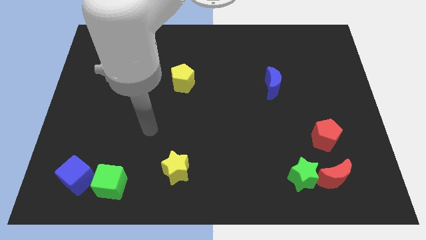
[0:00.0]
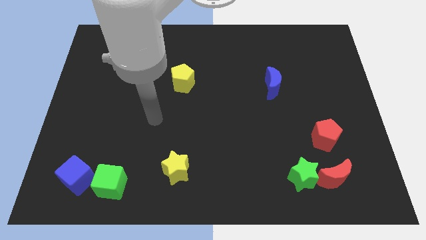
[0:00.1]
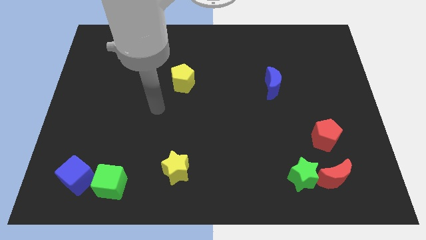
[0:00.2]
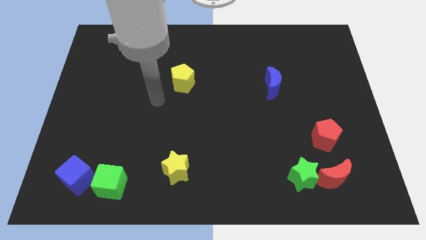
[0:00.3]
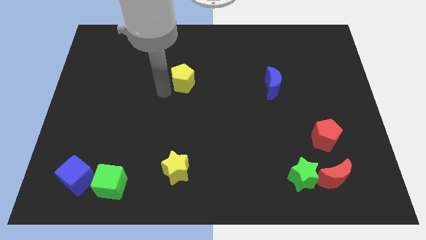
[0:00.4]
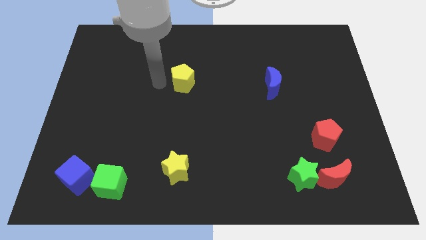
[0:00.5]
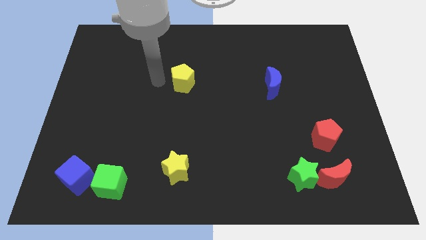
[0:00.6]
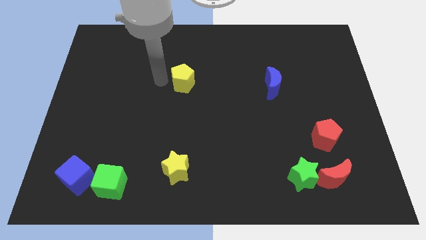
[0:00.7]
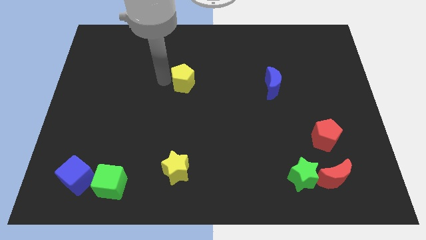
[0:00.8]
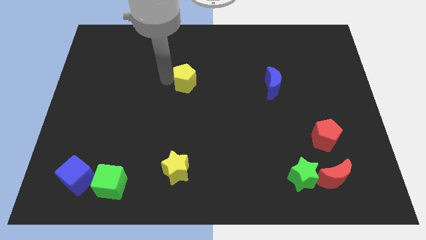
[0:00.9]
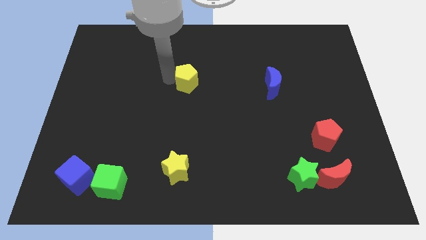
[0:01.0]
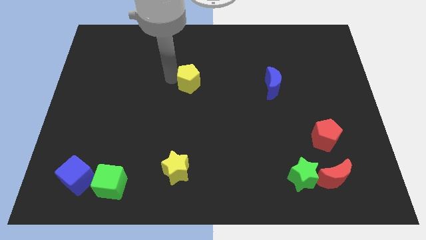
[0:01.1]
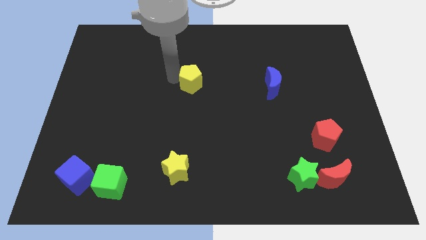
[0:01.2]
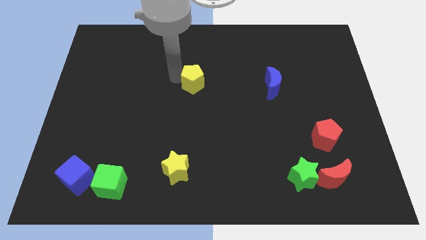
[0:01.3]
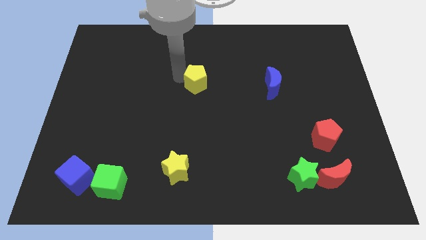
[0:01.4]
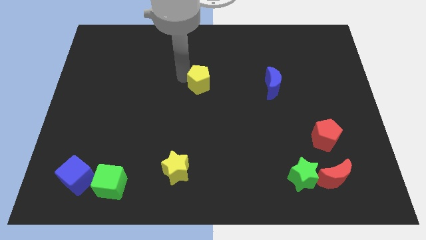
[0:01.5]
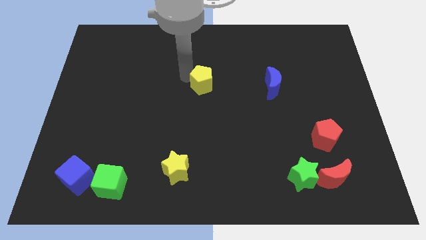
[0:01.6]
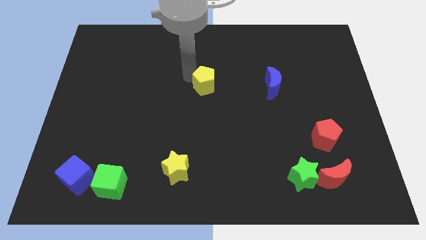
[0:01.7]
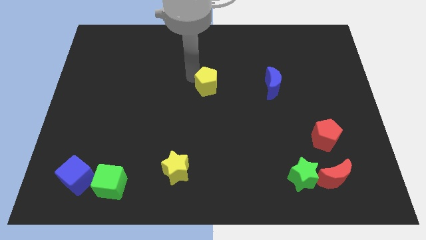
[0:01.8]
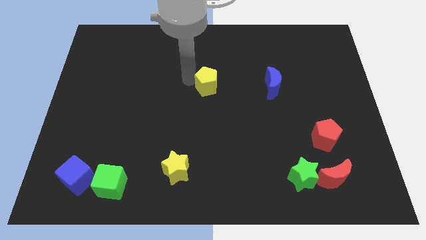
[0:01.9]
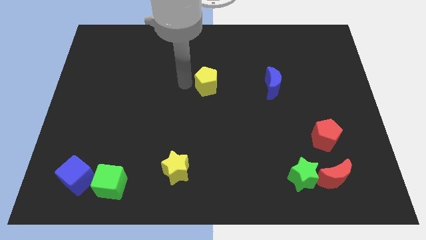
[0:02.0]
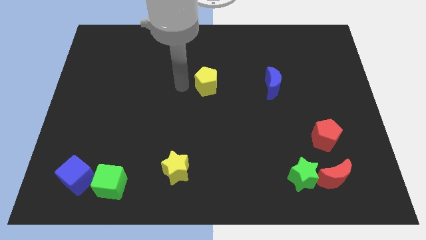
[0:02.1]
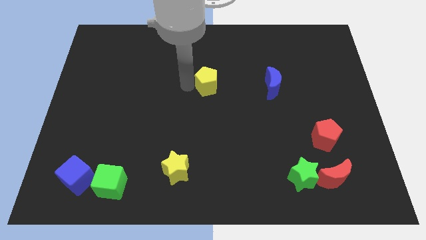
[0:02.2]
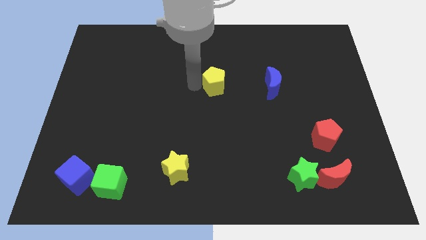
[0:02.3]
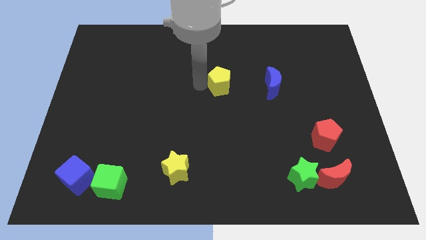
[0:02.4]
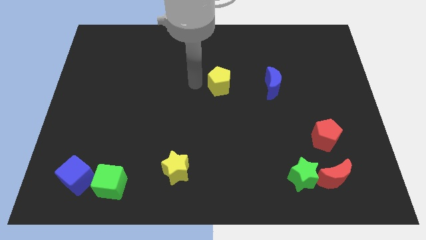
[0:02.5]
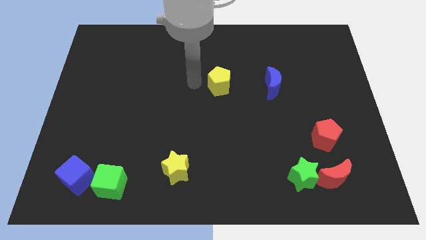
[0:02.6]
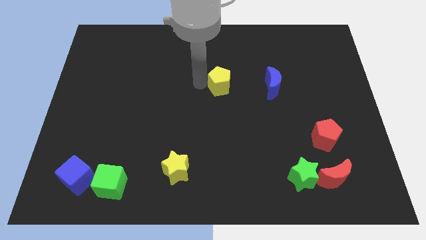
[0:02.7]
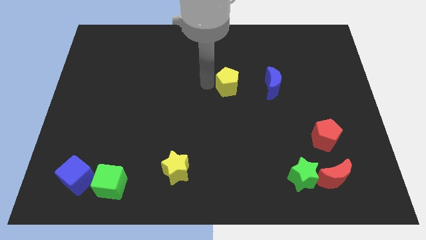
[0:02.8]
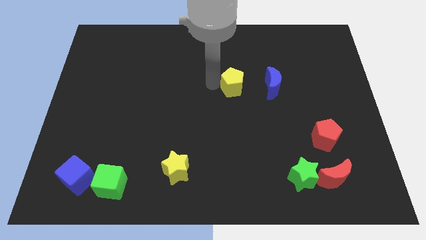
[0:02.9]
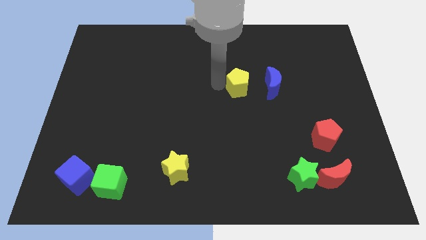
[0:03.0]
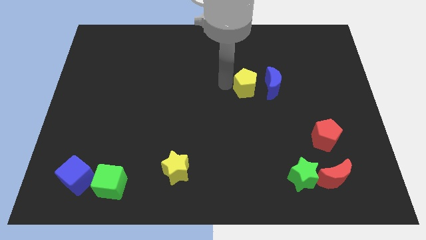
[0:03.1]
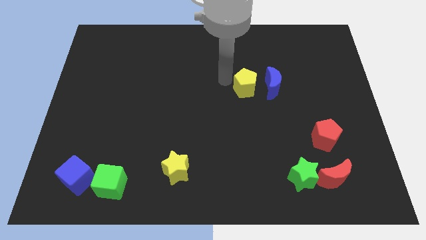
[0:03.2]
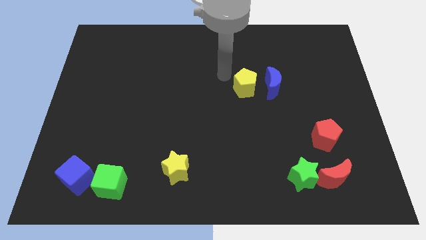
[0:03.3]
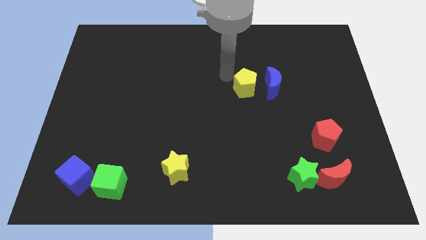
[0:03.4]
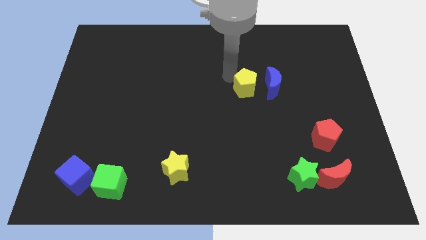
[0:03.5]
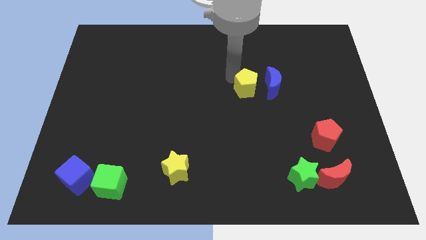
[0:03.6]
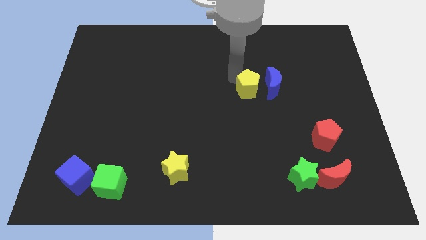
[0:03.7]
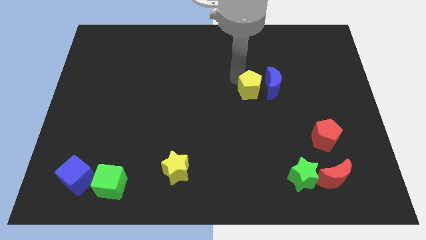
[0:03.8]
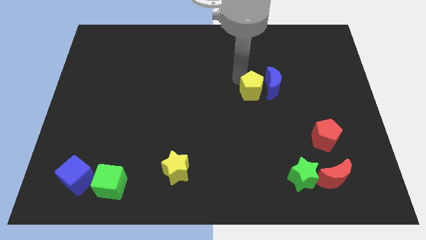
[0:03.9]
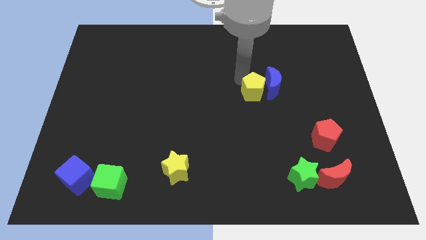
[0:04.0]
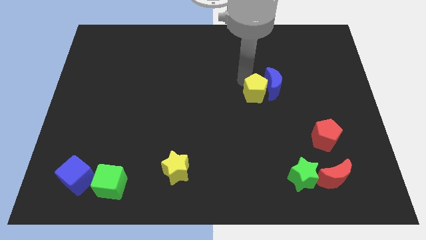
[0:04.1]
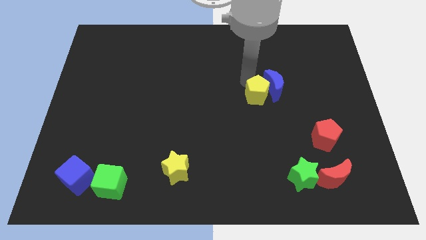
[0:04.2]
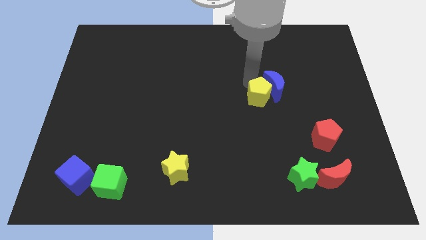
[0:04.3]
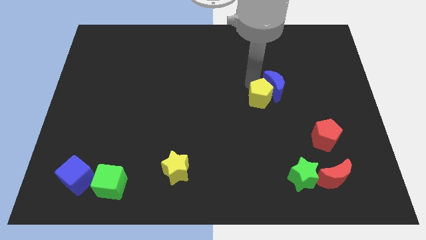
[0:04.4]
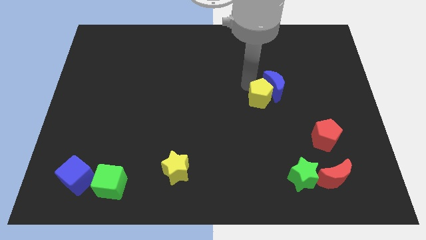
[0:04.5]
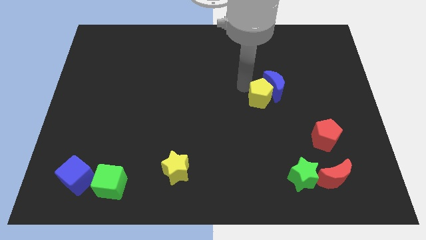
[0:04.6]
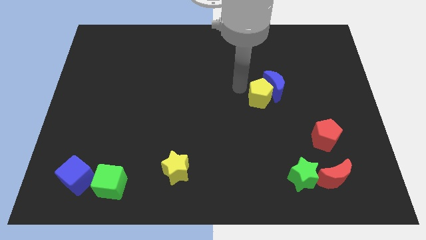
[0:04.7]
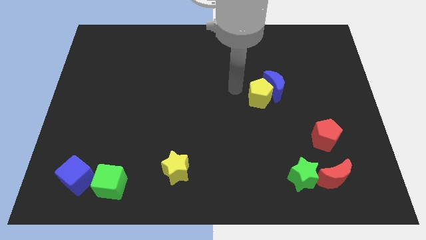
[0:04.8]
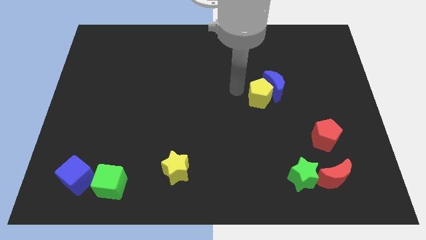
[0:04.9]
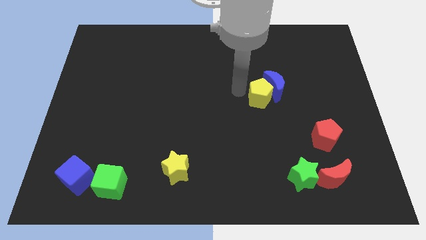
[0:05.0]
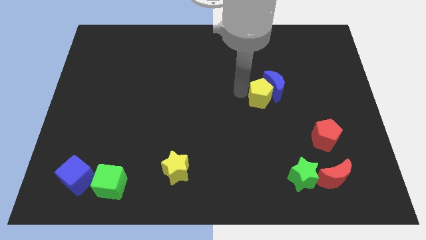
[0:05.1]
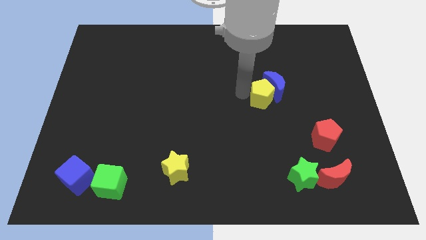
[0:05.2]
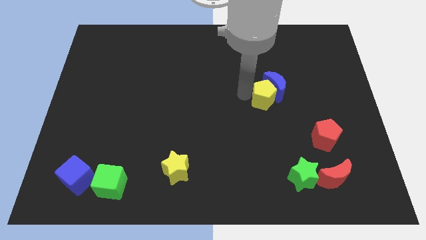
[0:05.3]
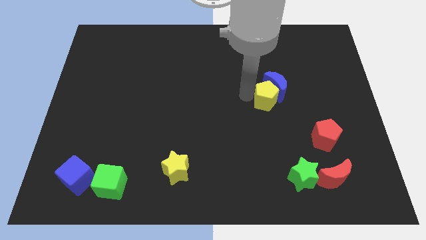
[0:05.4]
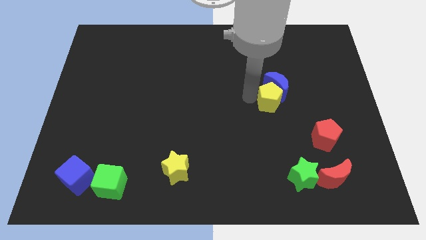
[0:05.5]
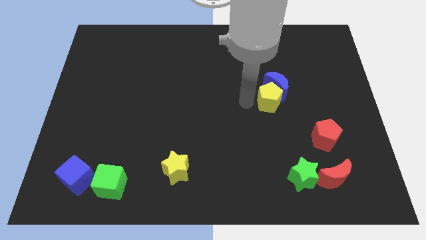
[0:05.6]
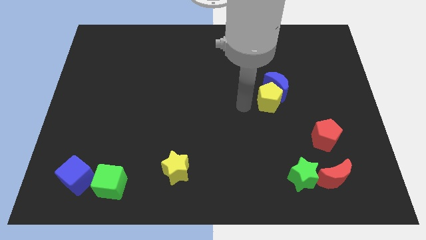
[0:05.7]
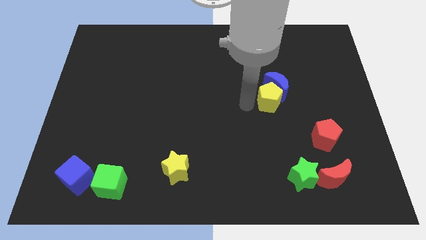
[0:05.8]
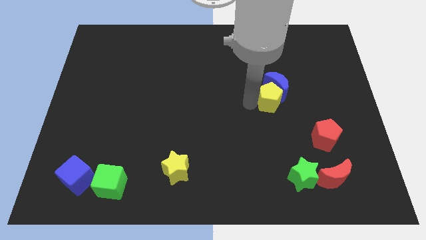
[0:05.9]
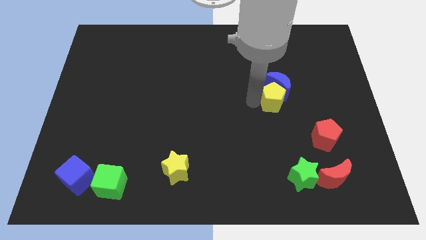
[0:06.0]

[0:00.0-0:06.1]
push the yellow pentagon to the right

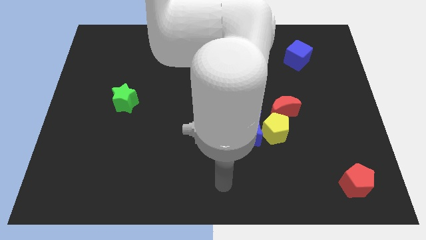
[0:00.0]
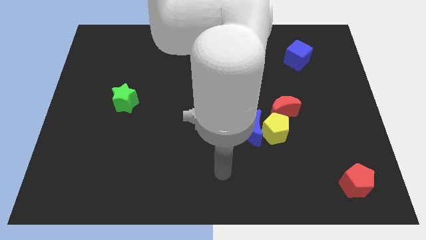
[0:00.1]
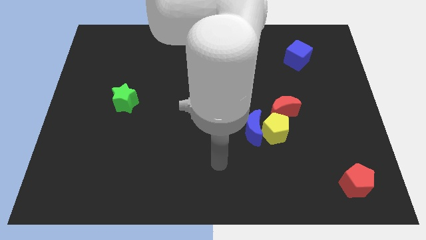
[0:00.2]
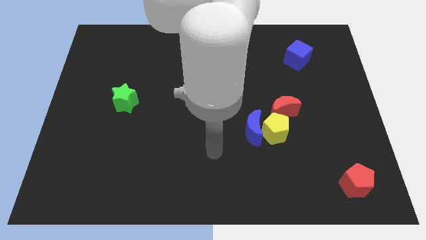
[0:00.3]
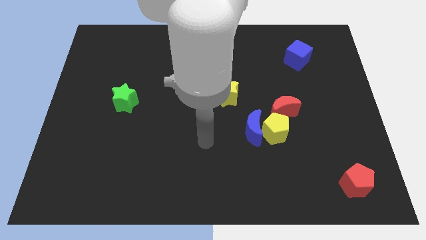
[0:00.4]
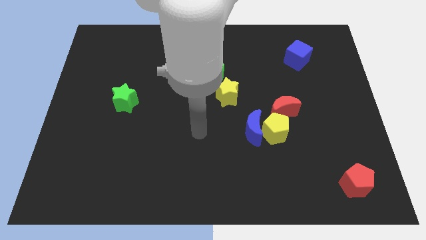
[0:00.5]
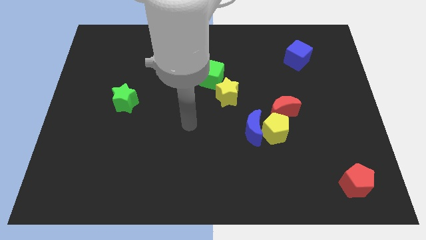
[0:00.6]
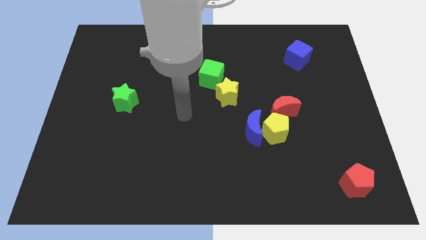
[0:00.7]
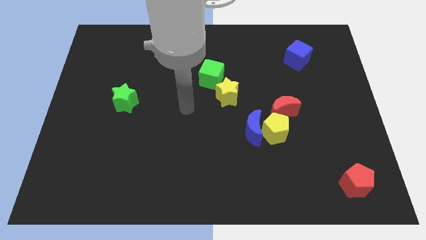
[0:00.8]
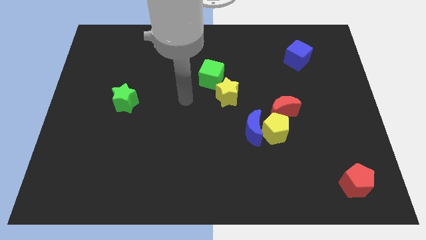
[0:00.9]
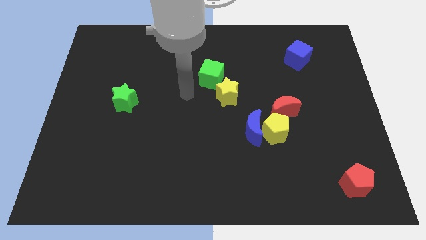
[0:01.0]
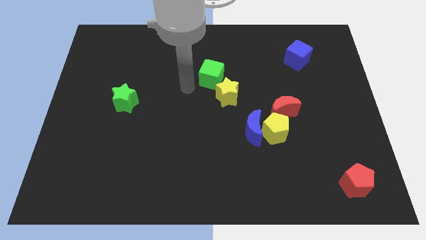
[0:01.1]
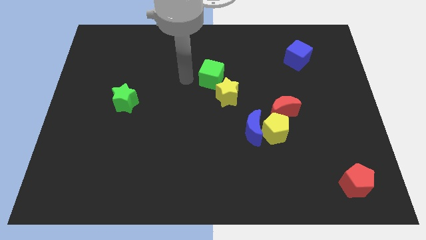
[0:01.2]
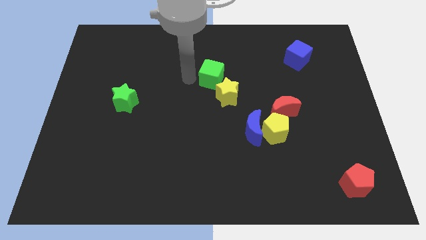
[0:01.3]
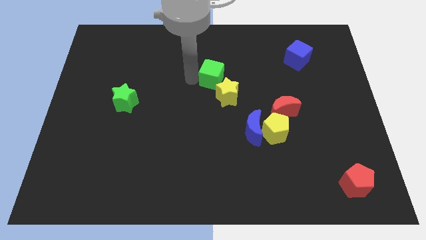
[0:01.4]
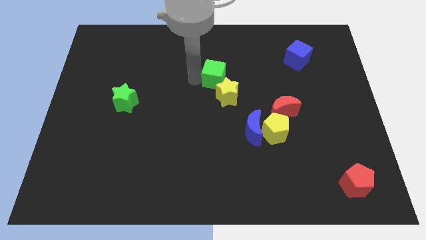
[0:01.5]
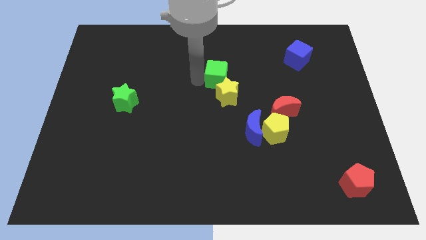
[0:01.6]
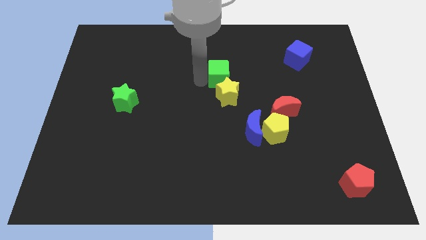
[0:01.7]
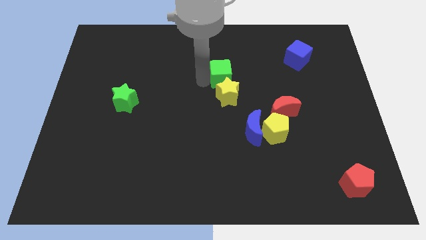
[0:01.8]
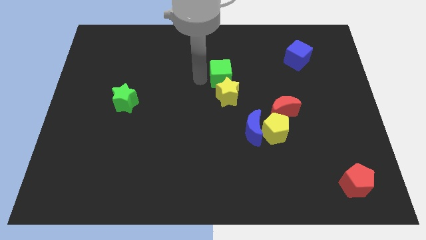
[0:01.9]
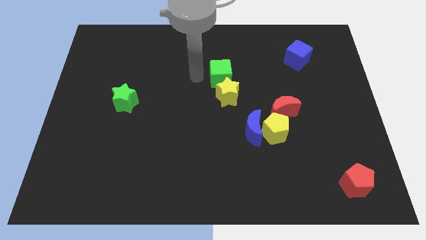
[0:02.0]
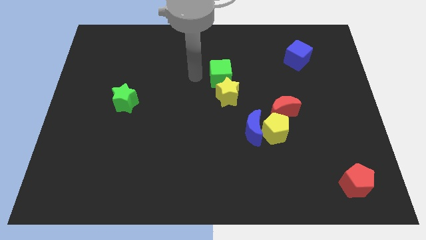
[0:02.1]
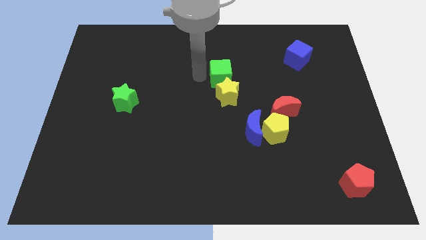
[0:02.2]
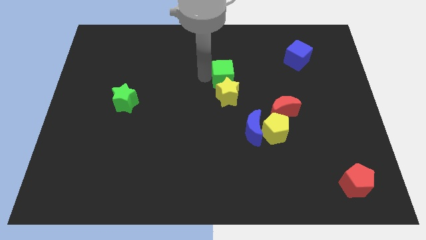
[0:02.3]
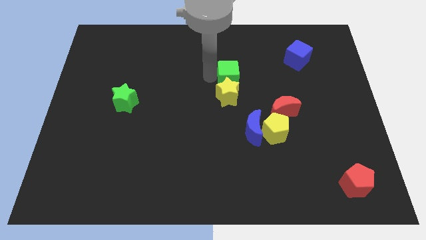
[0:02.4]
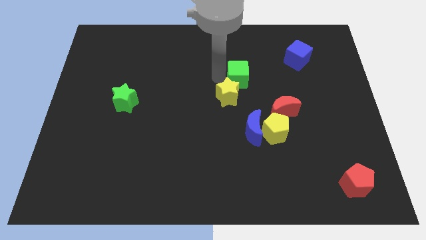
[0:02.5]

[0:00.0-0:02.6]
move the green cube somewhat to the right
